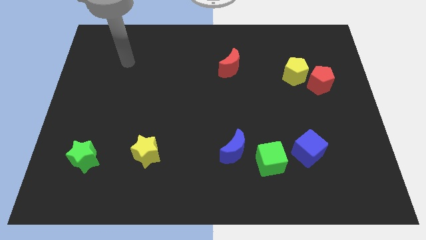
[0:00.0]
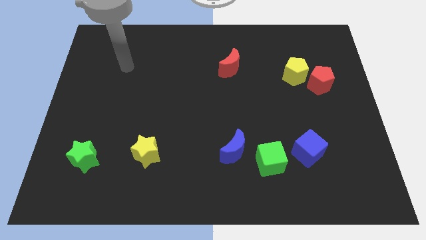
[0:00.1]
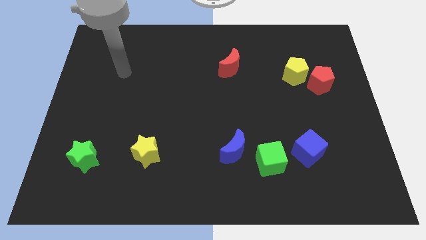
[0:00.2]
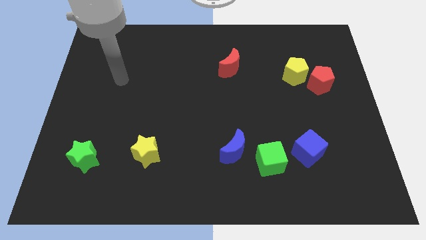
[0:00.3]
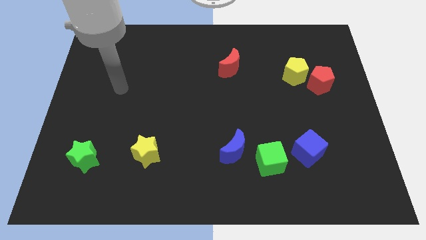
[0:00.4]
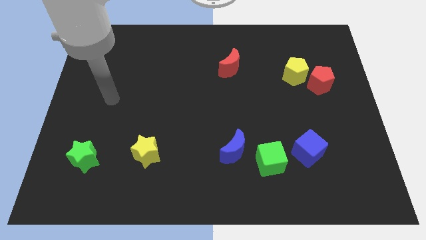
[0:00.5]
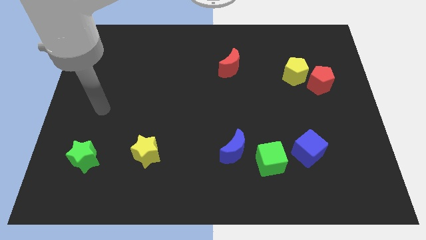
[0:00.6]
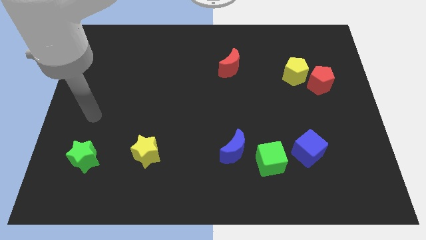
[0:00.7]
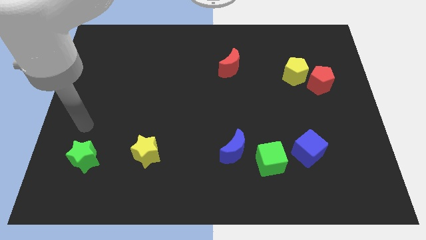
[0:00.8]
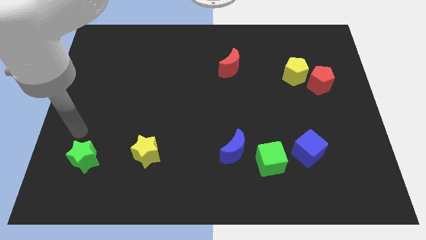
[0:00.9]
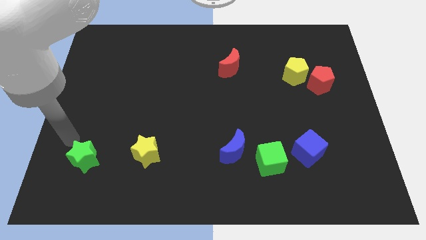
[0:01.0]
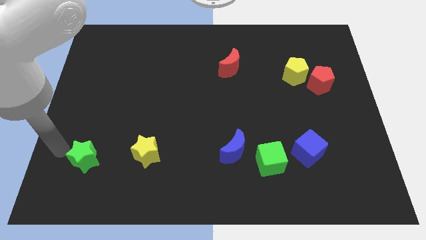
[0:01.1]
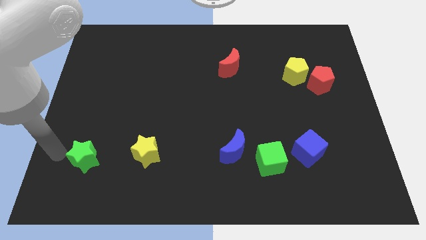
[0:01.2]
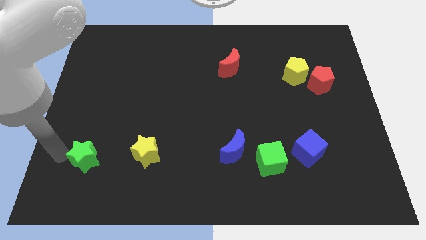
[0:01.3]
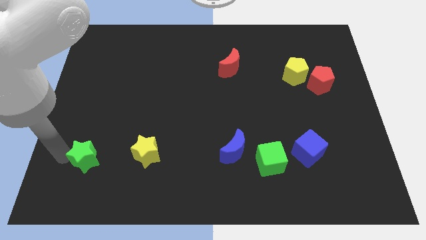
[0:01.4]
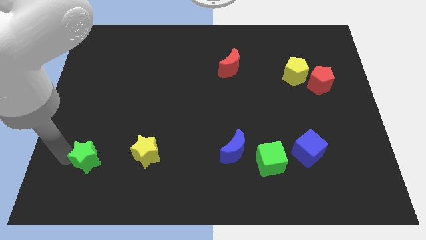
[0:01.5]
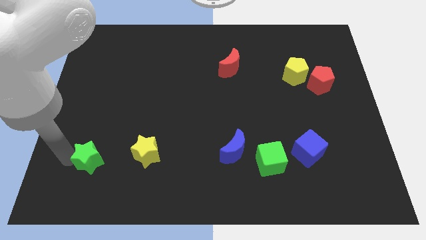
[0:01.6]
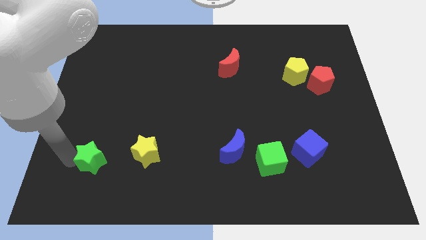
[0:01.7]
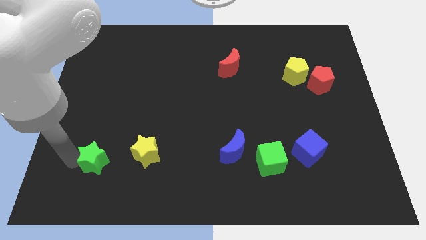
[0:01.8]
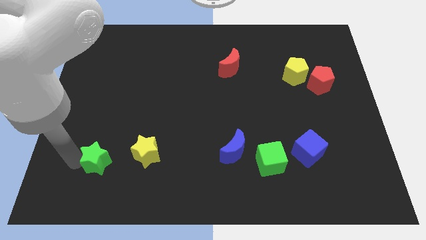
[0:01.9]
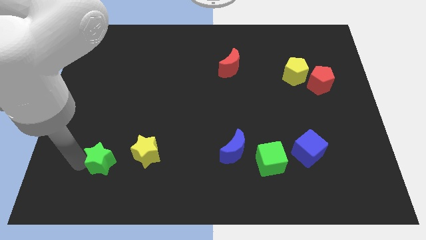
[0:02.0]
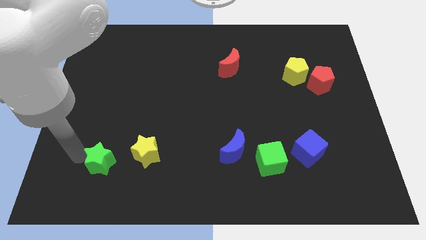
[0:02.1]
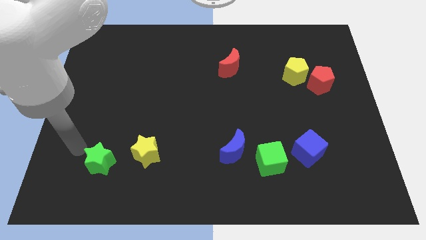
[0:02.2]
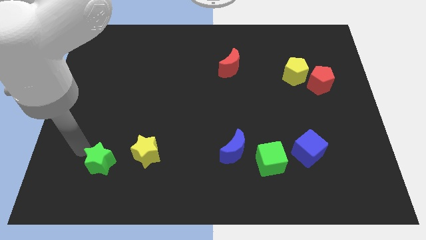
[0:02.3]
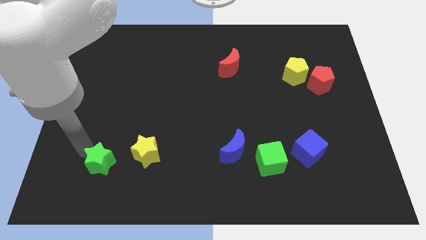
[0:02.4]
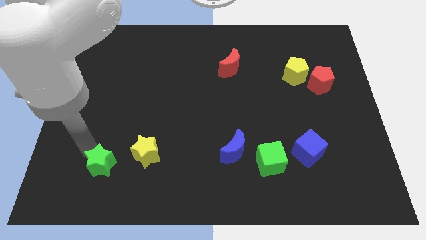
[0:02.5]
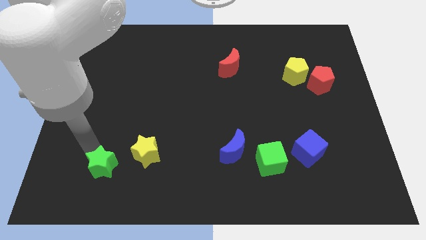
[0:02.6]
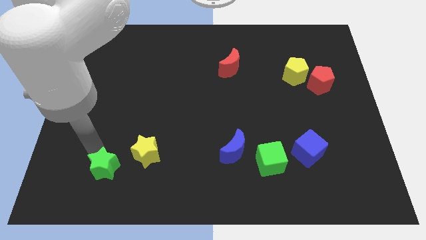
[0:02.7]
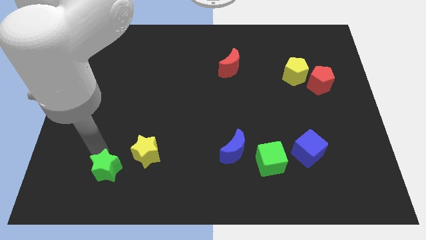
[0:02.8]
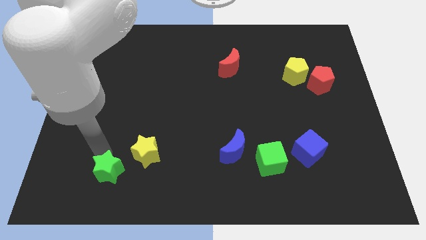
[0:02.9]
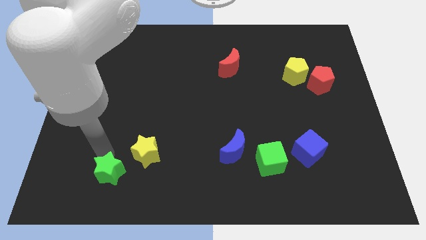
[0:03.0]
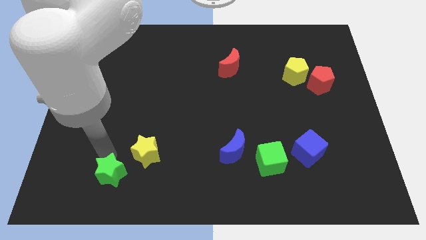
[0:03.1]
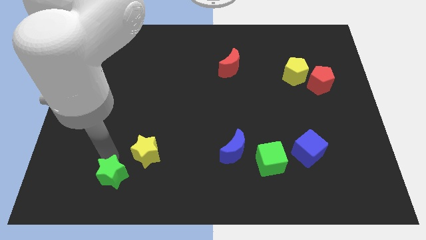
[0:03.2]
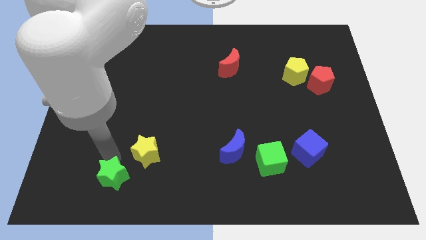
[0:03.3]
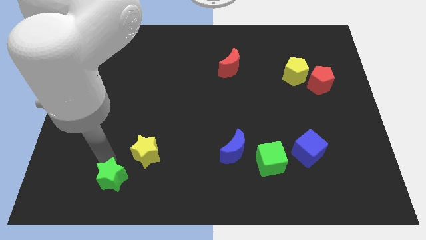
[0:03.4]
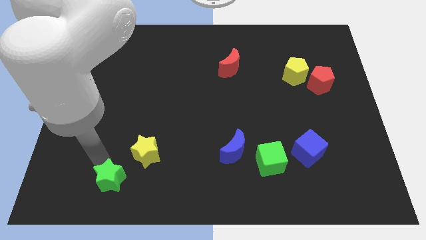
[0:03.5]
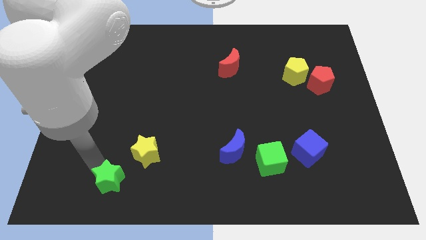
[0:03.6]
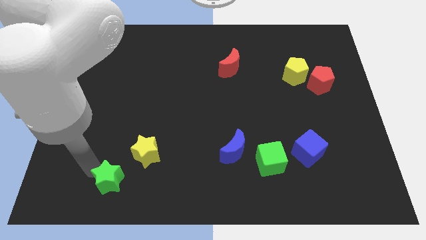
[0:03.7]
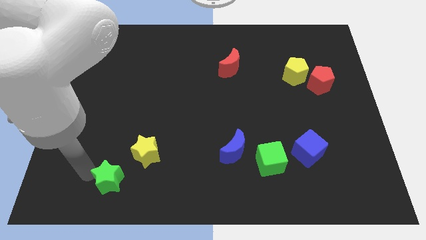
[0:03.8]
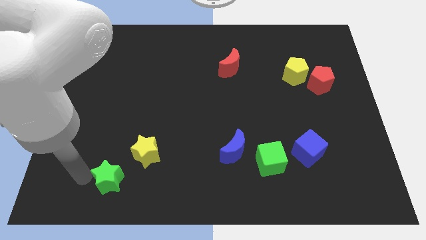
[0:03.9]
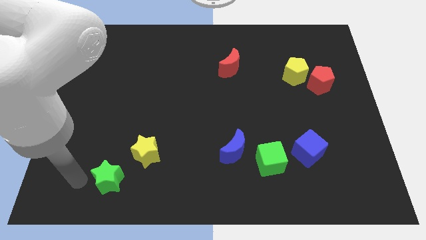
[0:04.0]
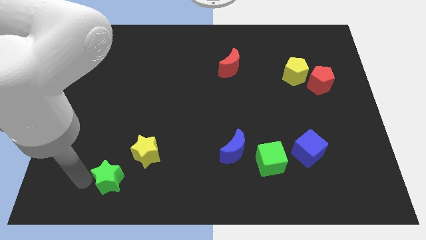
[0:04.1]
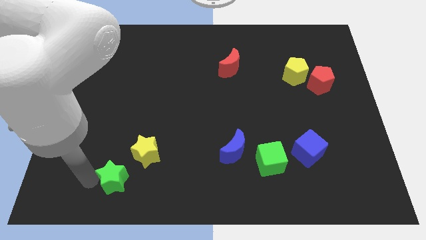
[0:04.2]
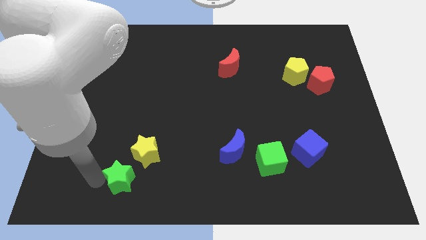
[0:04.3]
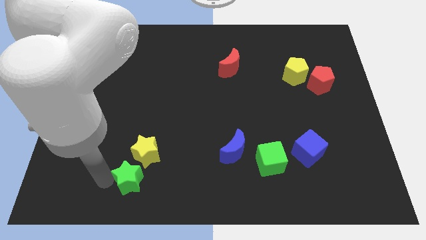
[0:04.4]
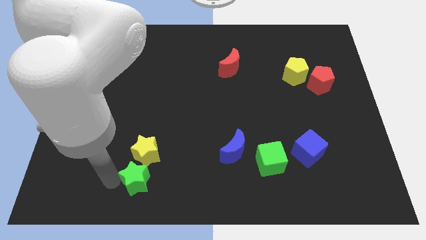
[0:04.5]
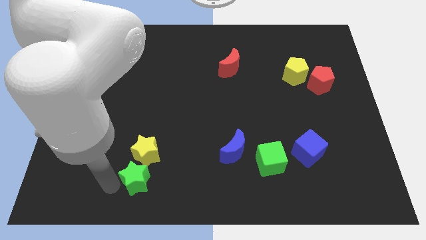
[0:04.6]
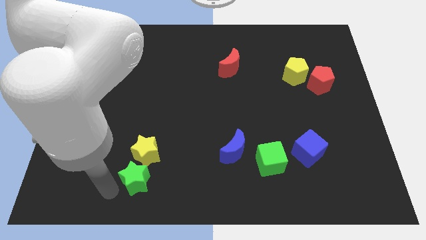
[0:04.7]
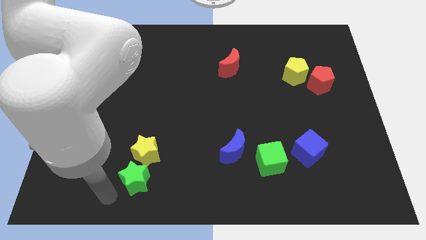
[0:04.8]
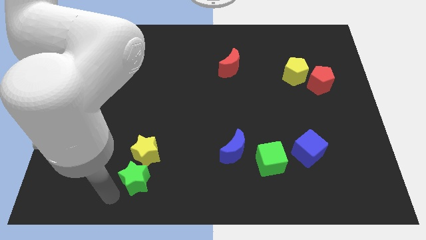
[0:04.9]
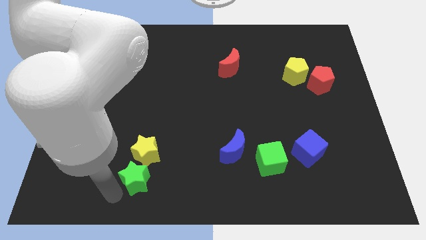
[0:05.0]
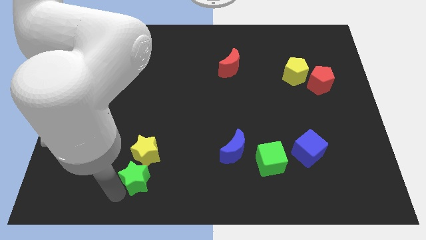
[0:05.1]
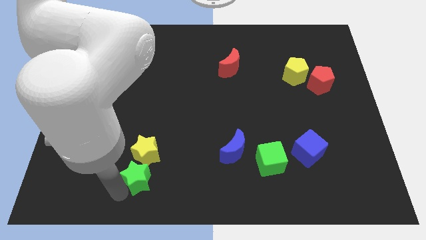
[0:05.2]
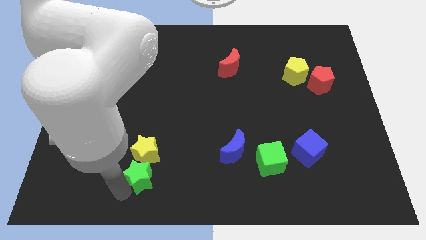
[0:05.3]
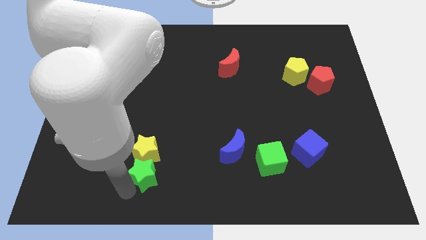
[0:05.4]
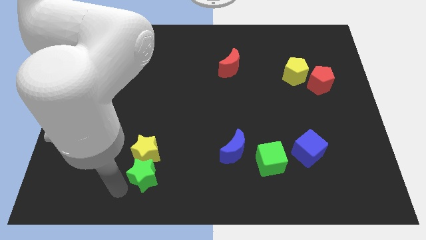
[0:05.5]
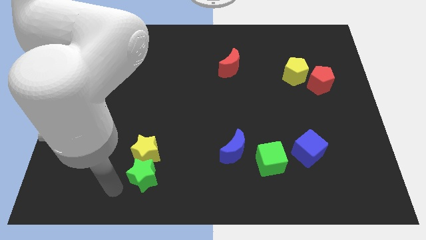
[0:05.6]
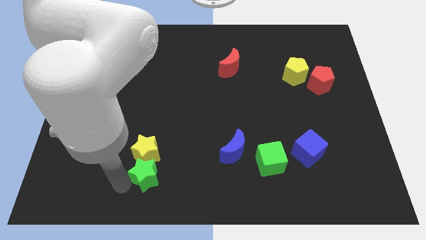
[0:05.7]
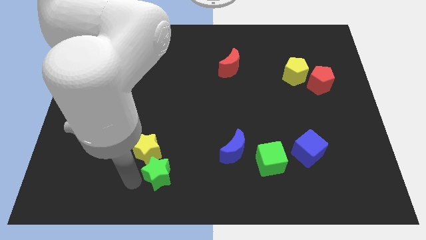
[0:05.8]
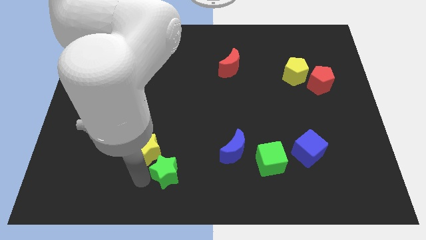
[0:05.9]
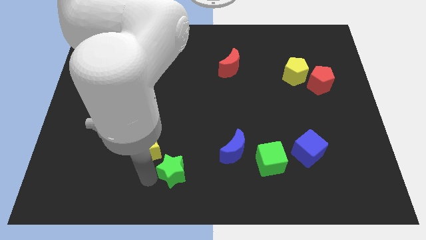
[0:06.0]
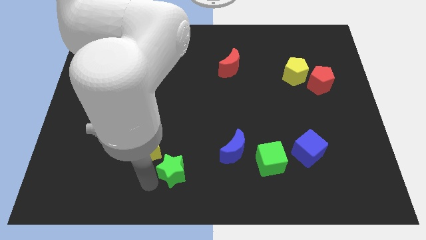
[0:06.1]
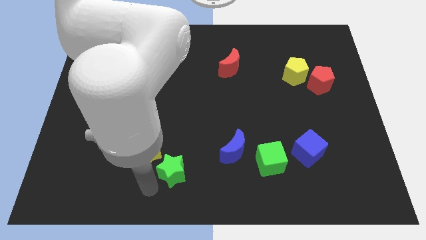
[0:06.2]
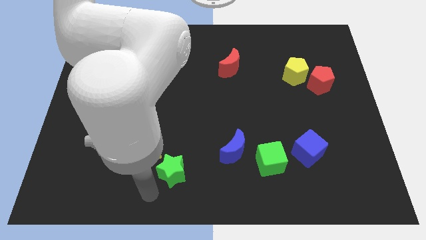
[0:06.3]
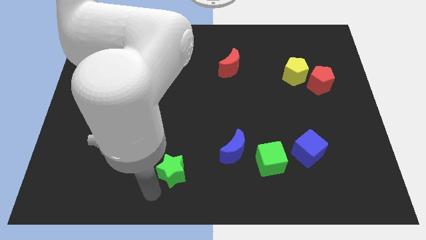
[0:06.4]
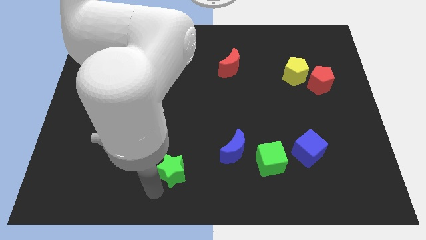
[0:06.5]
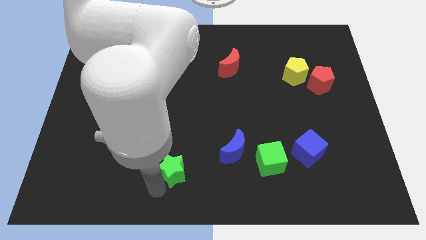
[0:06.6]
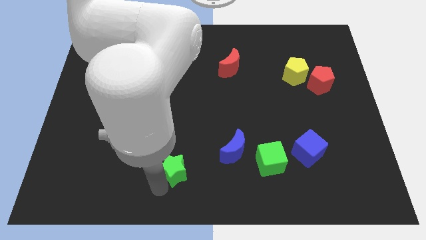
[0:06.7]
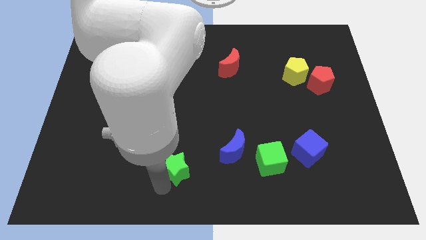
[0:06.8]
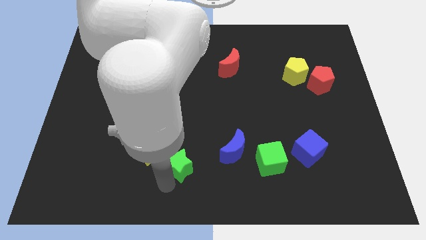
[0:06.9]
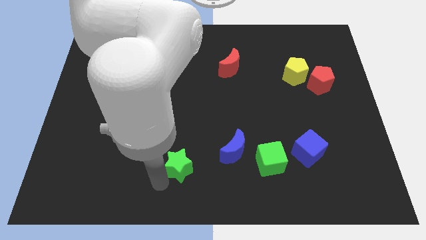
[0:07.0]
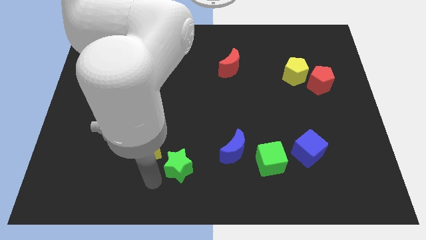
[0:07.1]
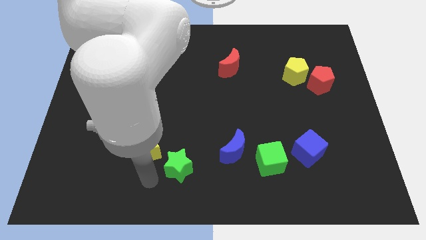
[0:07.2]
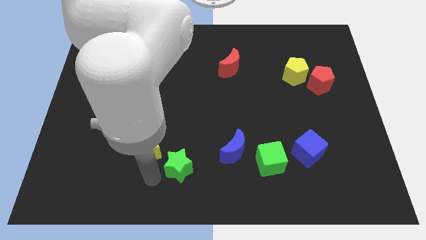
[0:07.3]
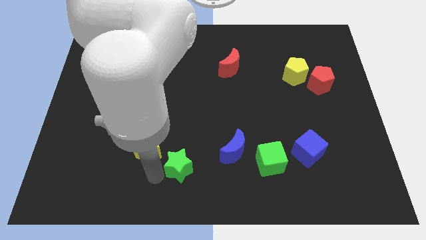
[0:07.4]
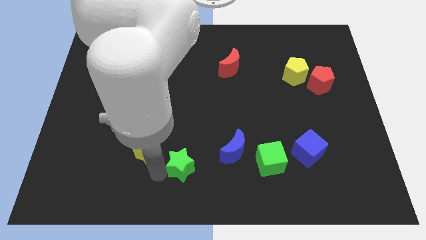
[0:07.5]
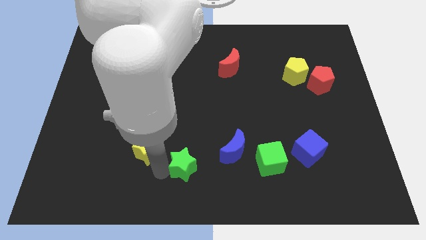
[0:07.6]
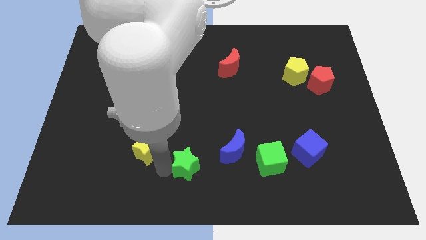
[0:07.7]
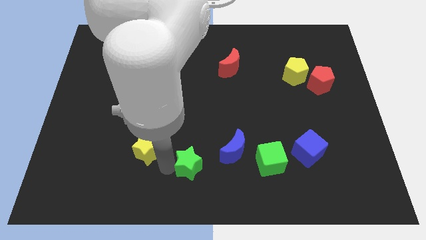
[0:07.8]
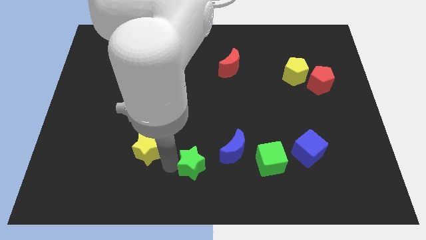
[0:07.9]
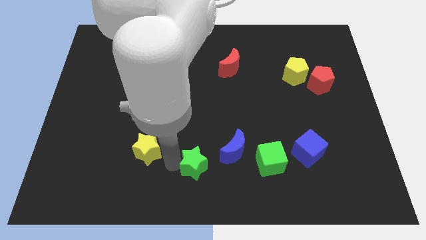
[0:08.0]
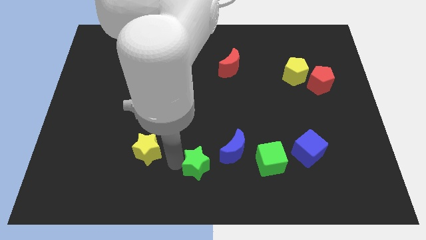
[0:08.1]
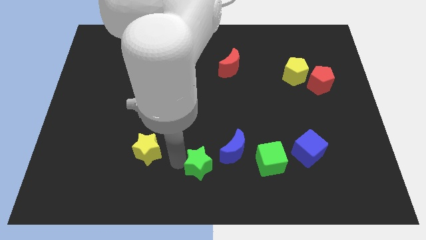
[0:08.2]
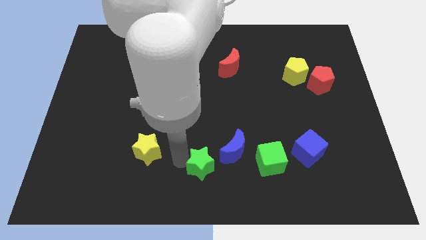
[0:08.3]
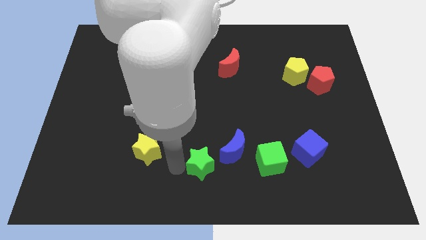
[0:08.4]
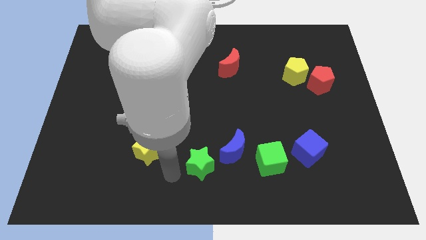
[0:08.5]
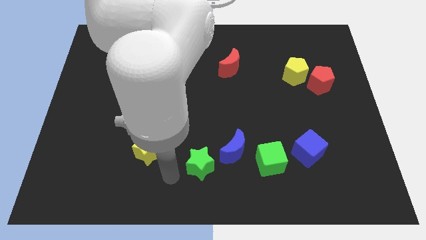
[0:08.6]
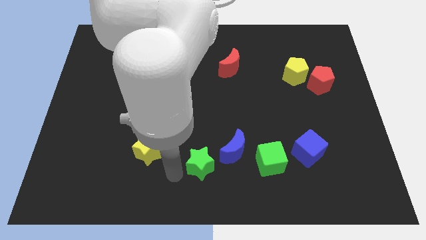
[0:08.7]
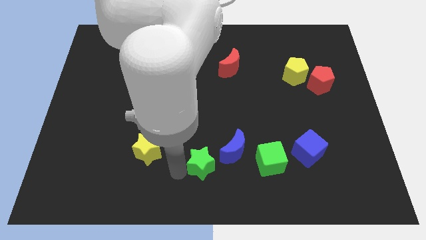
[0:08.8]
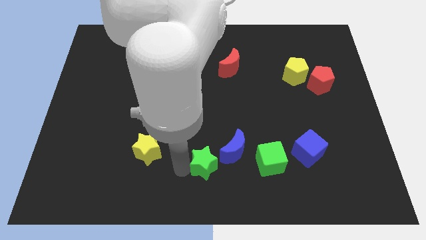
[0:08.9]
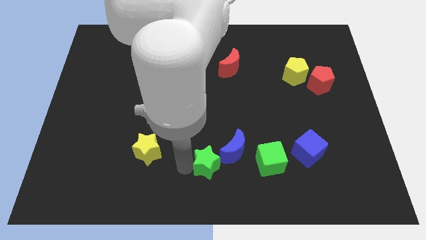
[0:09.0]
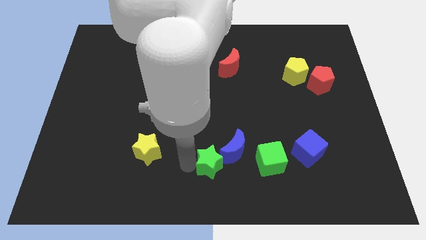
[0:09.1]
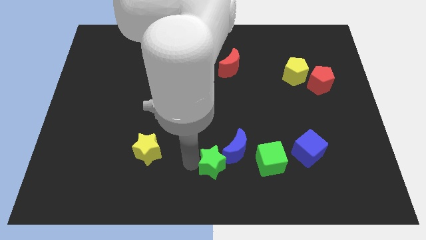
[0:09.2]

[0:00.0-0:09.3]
put the green star towards the blue moon
